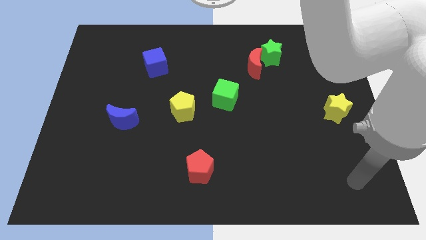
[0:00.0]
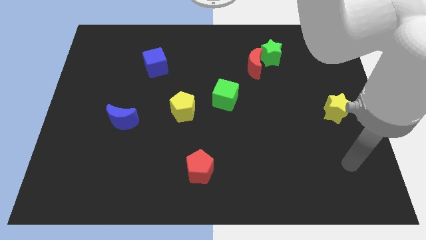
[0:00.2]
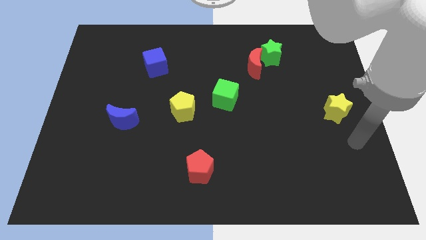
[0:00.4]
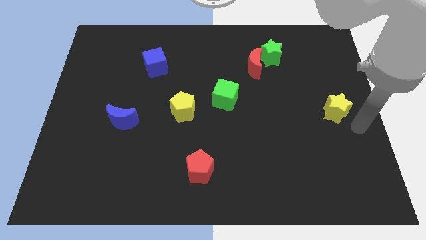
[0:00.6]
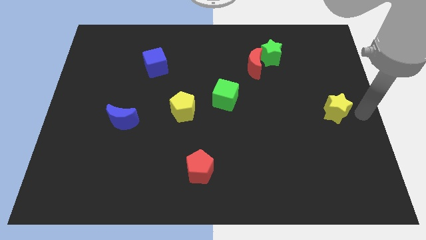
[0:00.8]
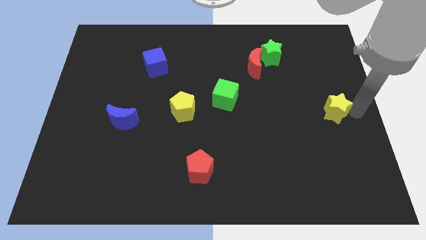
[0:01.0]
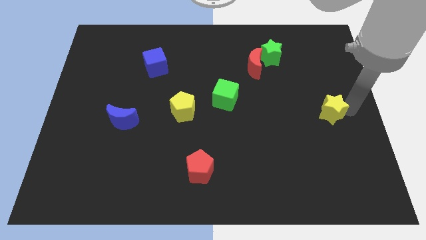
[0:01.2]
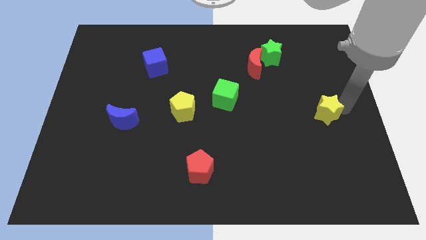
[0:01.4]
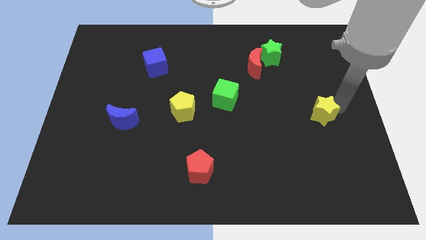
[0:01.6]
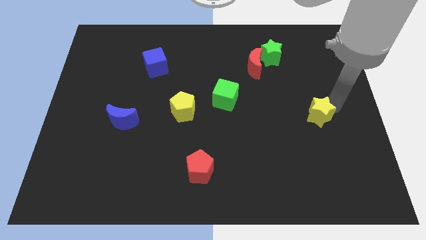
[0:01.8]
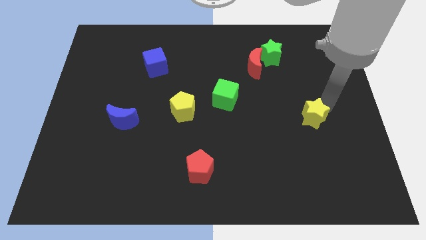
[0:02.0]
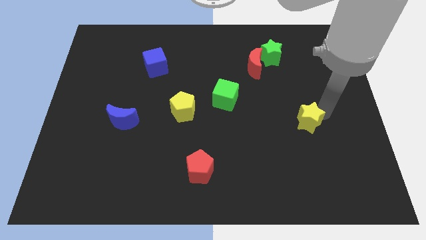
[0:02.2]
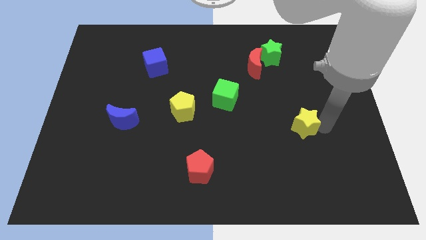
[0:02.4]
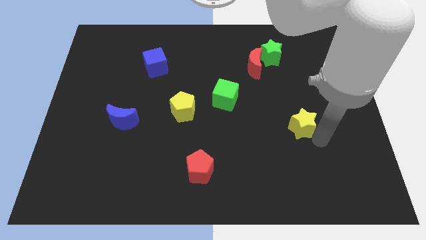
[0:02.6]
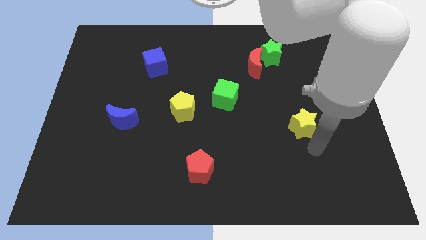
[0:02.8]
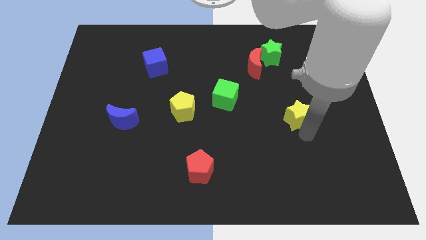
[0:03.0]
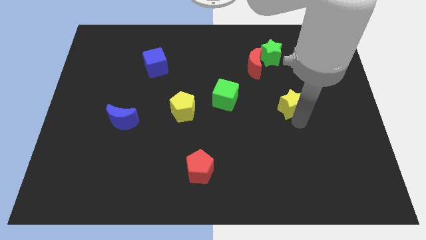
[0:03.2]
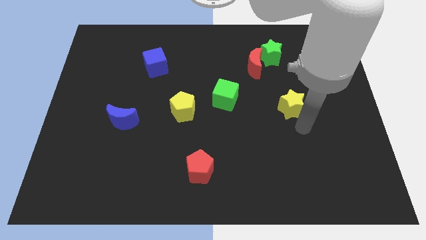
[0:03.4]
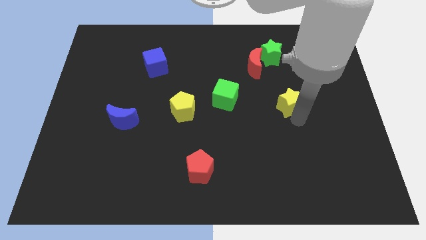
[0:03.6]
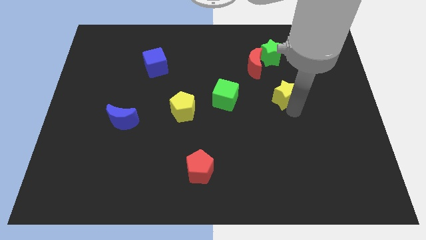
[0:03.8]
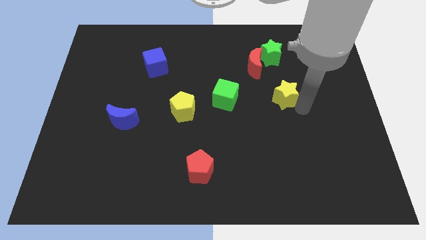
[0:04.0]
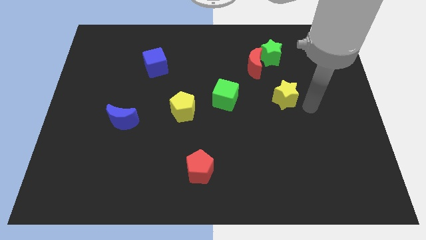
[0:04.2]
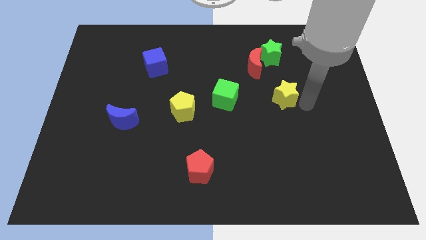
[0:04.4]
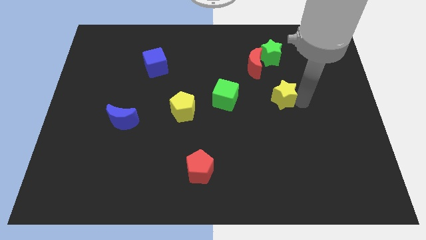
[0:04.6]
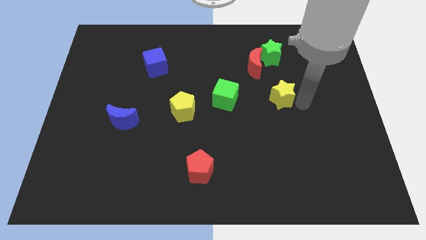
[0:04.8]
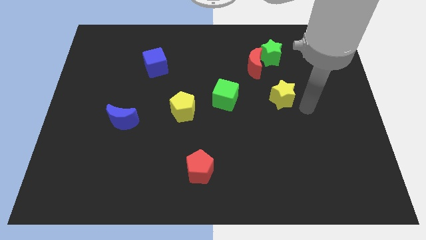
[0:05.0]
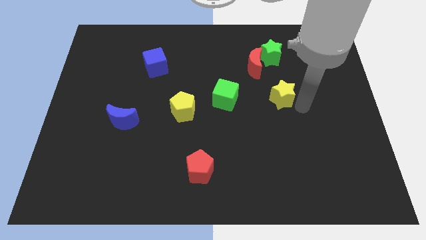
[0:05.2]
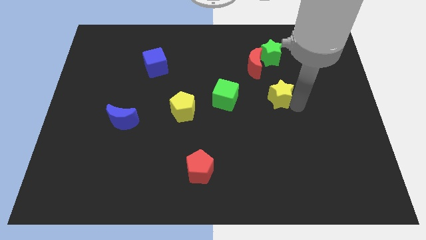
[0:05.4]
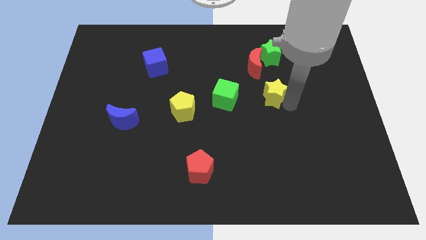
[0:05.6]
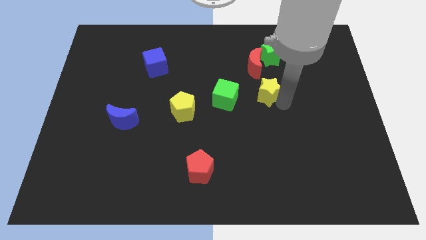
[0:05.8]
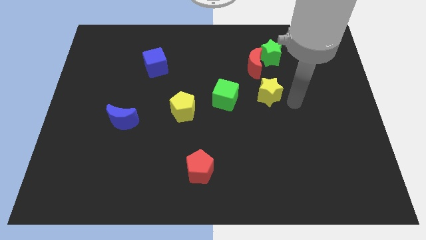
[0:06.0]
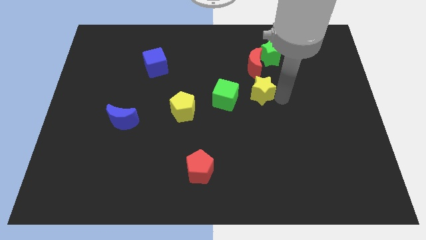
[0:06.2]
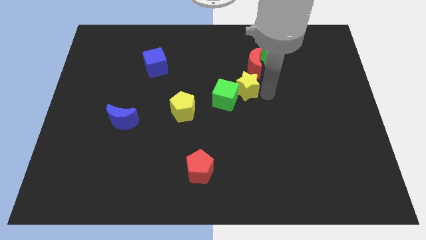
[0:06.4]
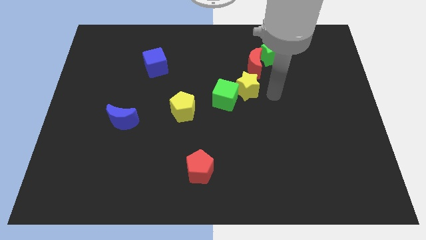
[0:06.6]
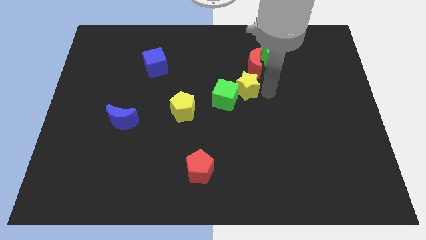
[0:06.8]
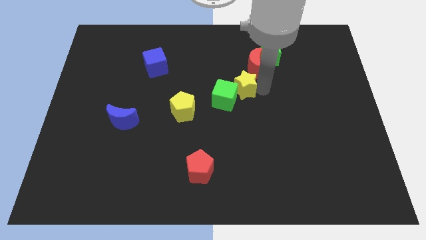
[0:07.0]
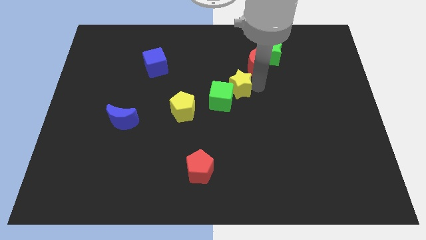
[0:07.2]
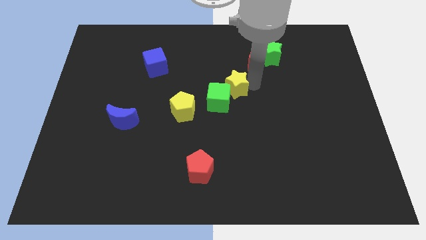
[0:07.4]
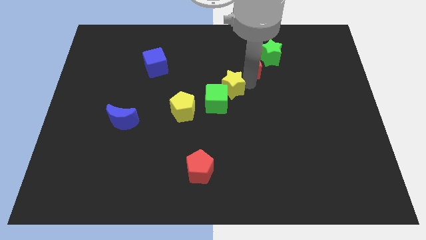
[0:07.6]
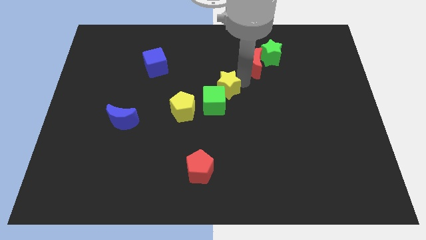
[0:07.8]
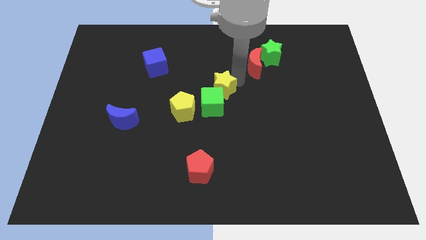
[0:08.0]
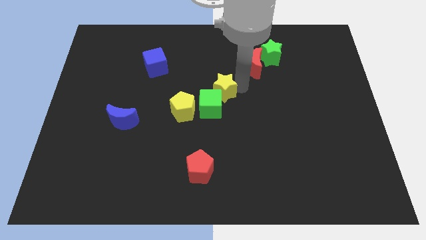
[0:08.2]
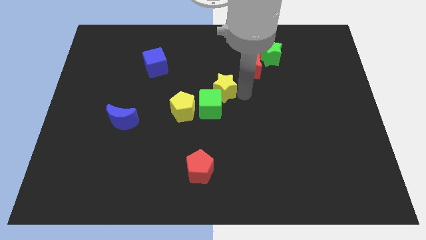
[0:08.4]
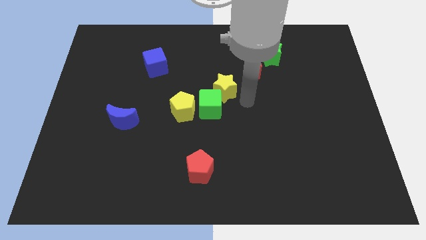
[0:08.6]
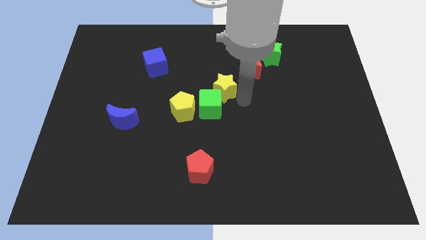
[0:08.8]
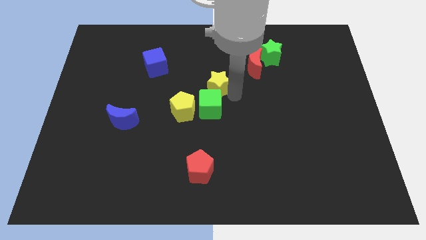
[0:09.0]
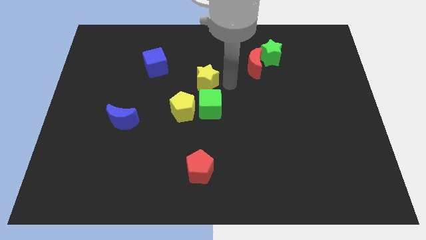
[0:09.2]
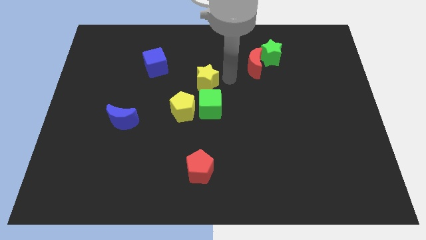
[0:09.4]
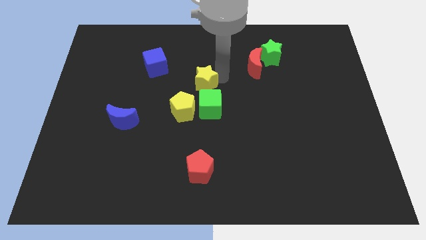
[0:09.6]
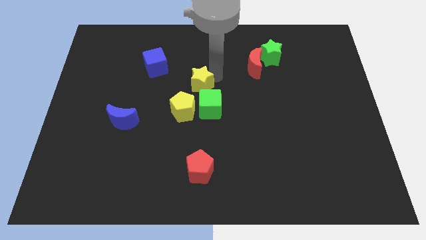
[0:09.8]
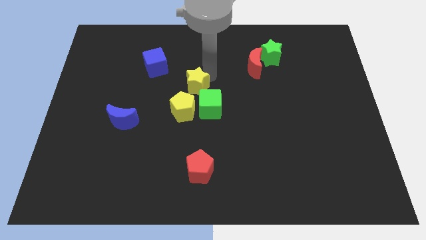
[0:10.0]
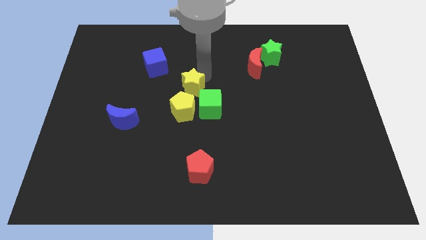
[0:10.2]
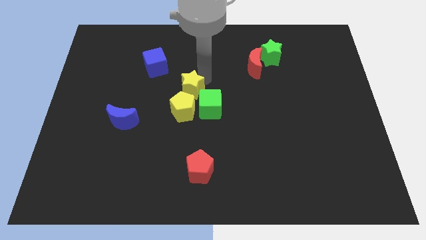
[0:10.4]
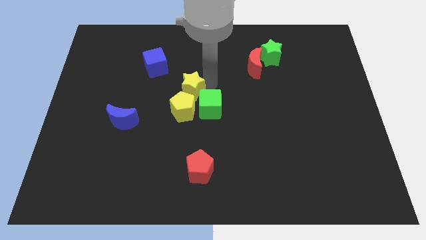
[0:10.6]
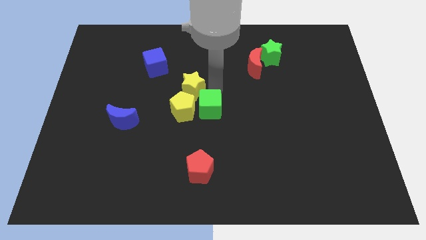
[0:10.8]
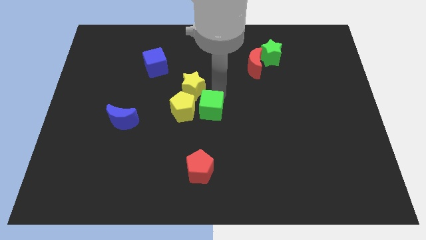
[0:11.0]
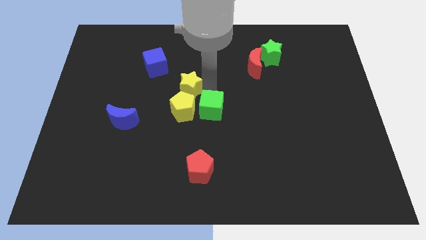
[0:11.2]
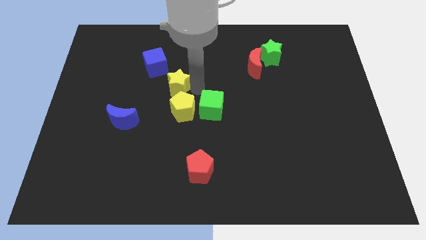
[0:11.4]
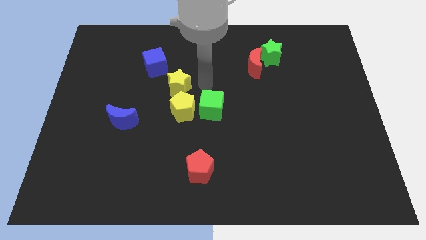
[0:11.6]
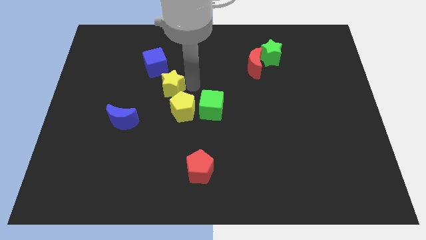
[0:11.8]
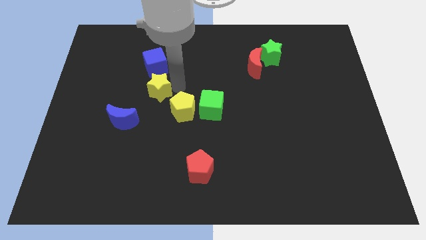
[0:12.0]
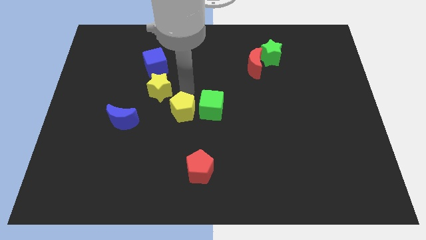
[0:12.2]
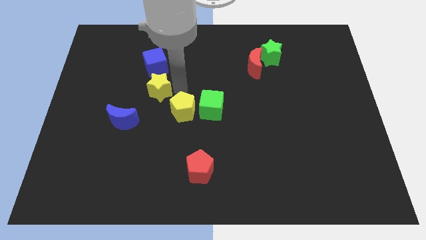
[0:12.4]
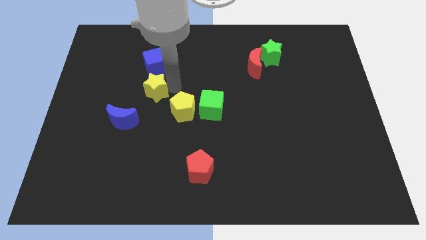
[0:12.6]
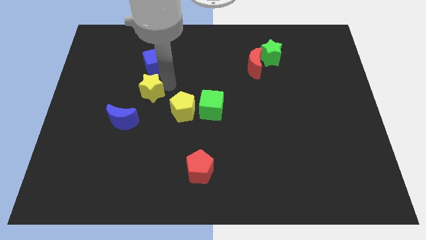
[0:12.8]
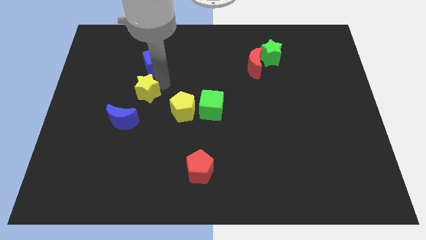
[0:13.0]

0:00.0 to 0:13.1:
move the yellow star to the top side of the blue moon

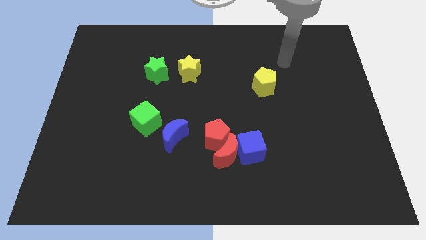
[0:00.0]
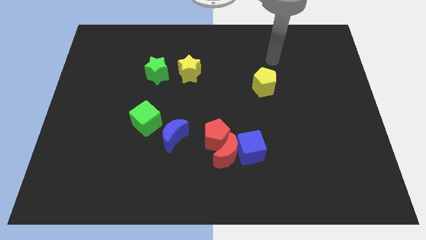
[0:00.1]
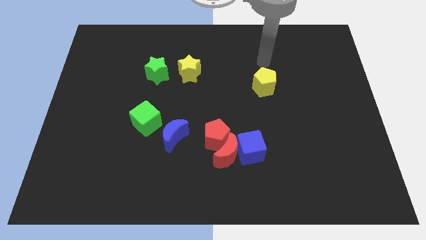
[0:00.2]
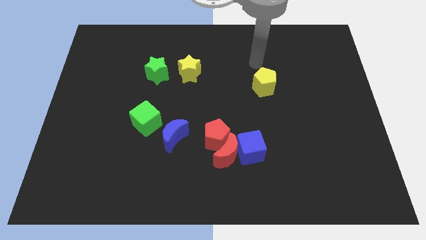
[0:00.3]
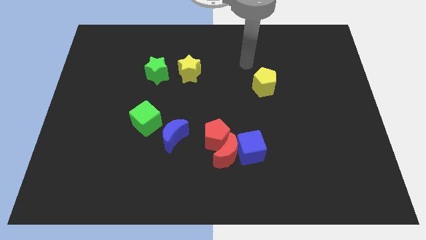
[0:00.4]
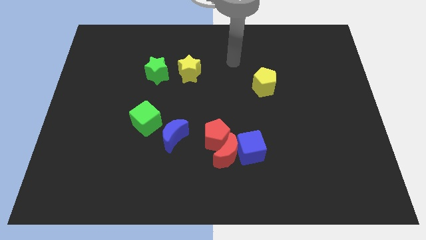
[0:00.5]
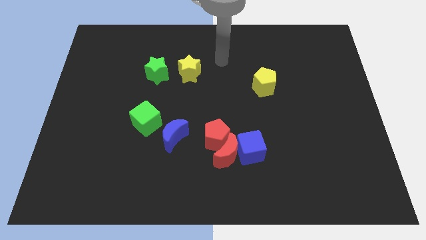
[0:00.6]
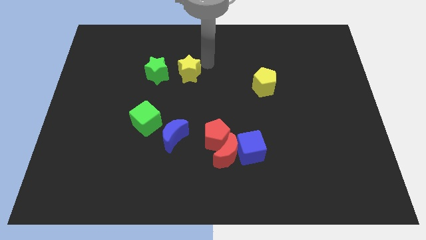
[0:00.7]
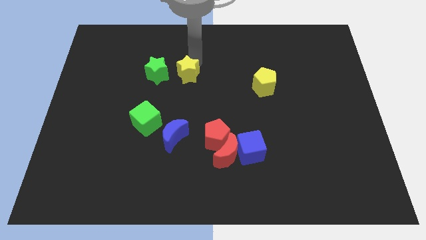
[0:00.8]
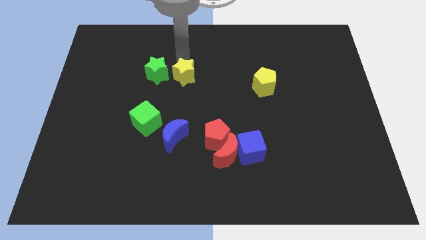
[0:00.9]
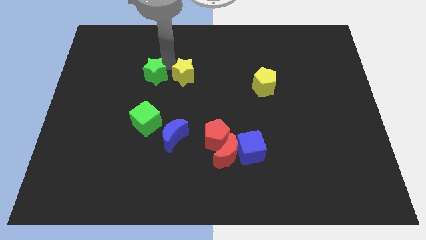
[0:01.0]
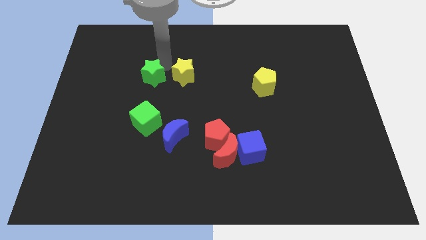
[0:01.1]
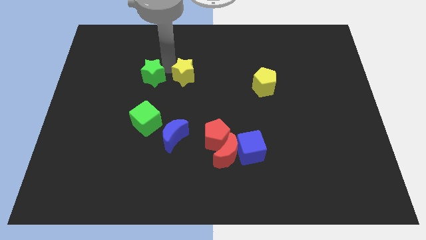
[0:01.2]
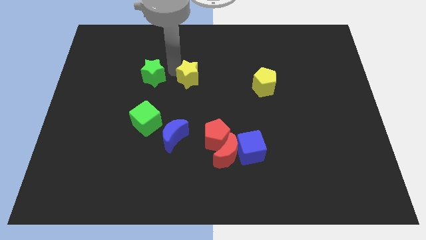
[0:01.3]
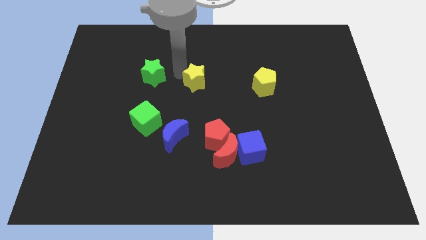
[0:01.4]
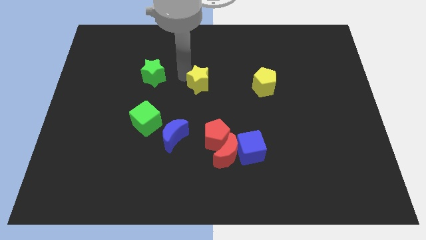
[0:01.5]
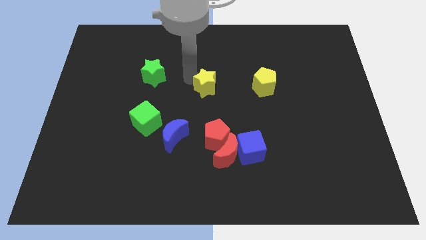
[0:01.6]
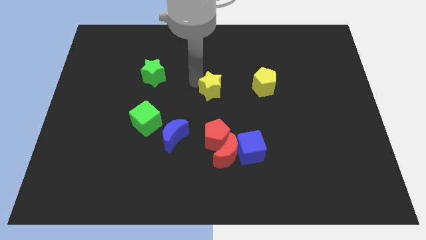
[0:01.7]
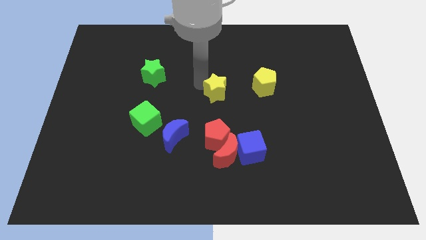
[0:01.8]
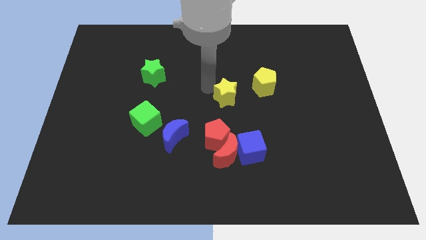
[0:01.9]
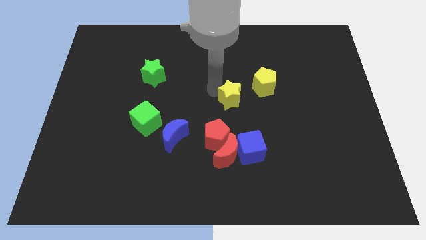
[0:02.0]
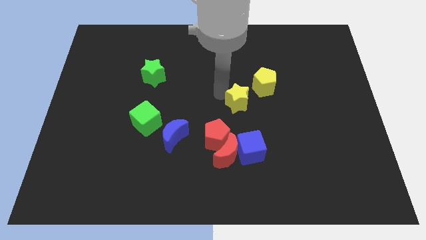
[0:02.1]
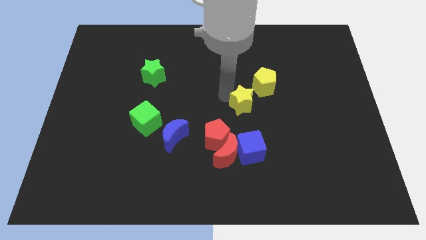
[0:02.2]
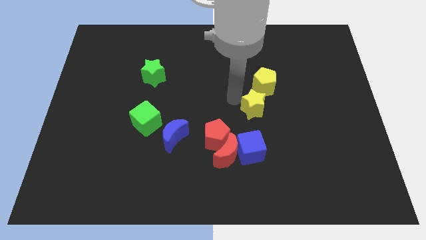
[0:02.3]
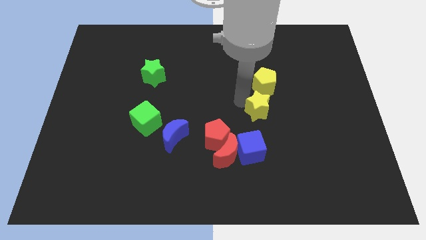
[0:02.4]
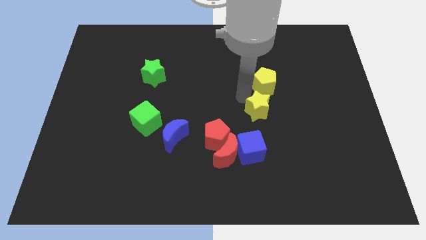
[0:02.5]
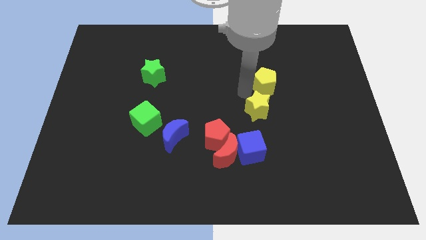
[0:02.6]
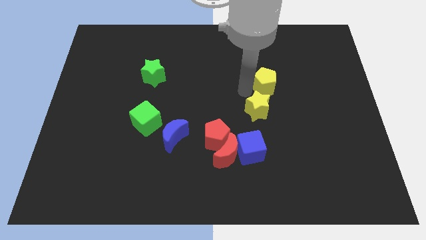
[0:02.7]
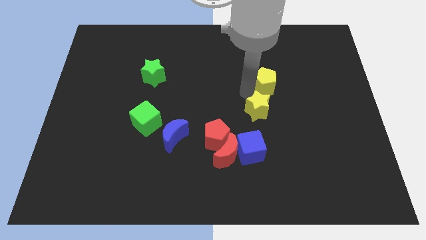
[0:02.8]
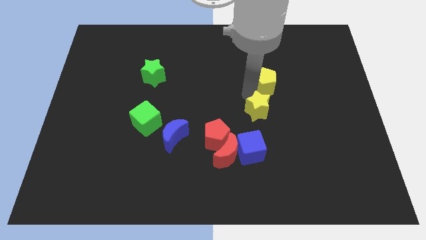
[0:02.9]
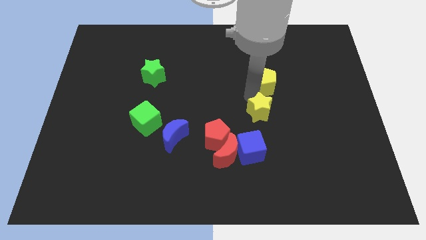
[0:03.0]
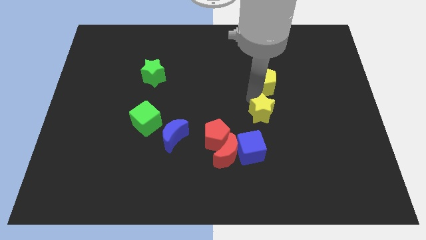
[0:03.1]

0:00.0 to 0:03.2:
push the yellow star to the top right of the blue cube
